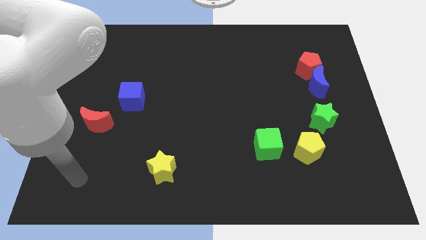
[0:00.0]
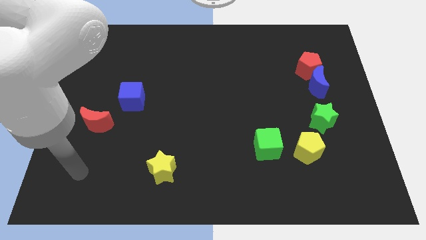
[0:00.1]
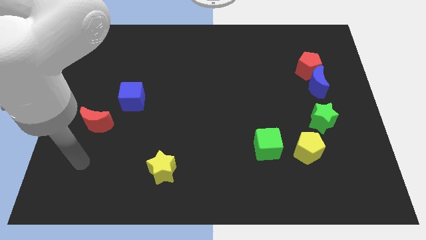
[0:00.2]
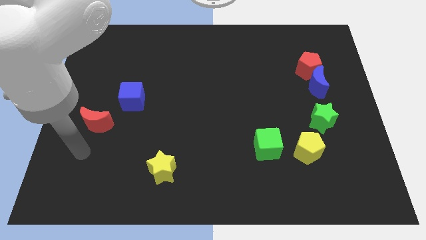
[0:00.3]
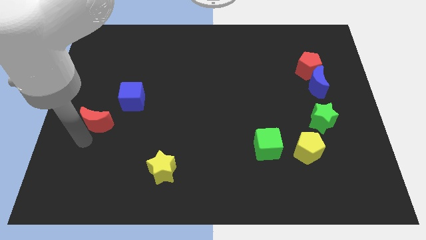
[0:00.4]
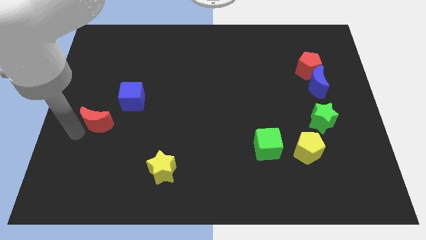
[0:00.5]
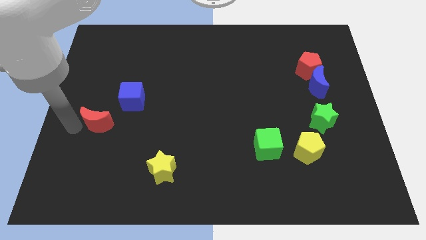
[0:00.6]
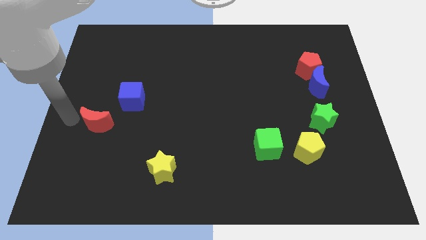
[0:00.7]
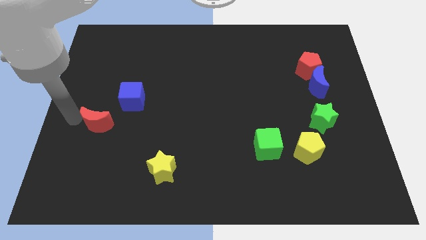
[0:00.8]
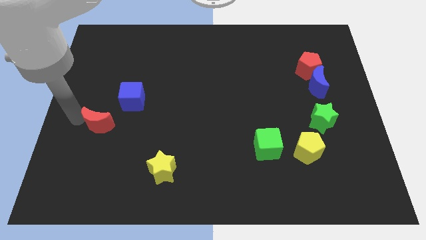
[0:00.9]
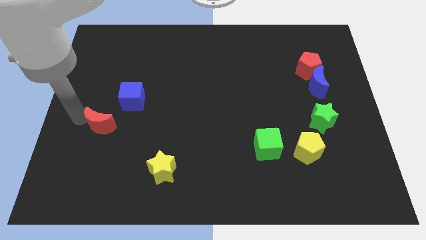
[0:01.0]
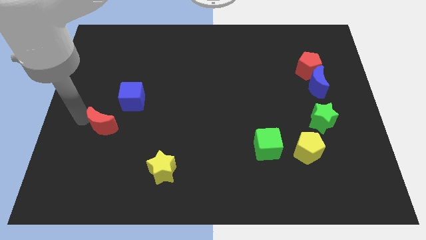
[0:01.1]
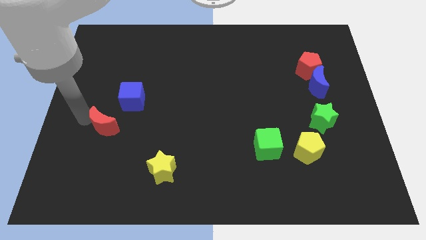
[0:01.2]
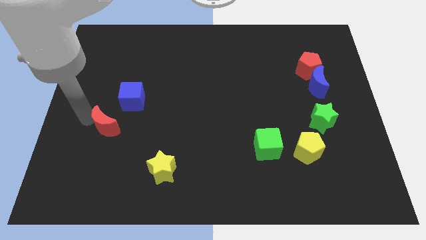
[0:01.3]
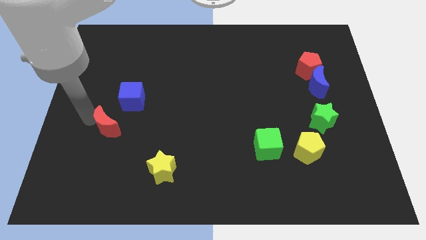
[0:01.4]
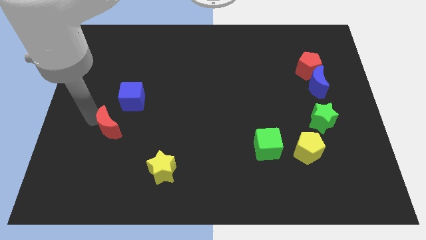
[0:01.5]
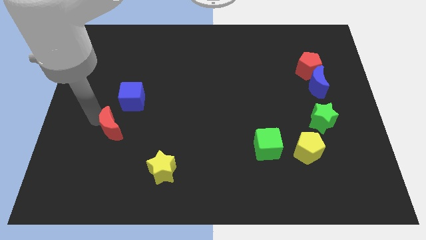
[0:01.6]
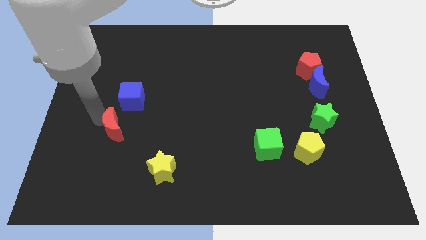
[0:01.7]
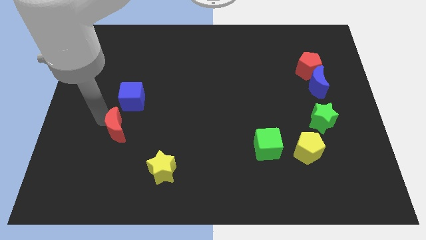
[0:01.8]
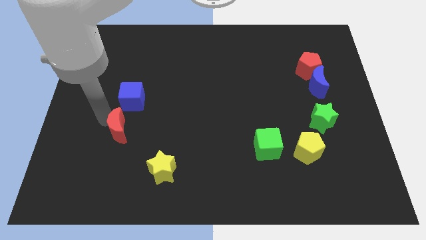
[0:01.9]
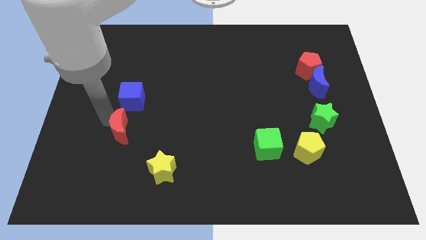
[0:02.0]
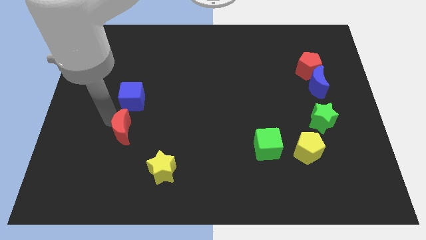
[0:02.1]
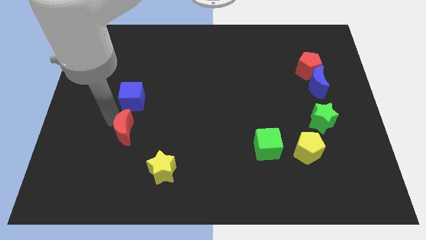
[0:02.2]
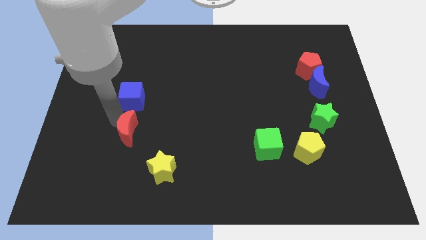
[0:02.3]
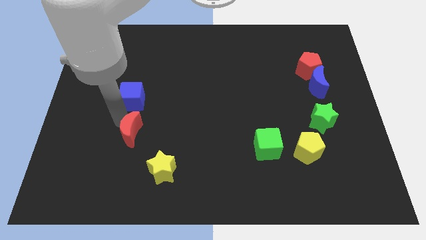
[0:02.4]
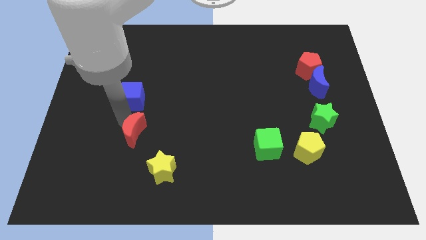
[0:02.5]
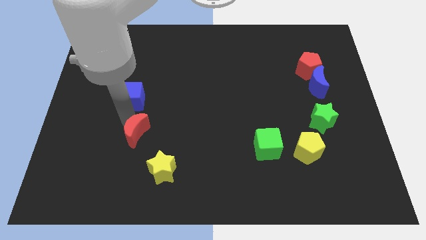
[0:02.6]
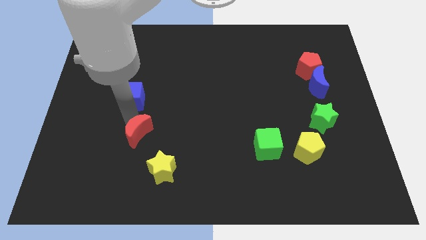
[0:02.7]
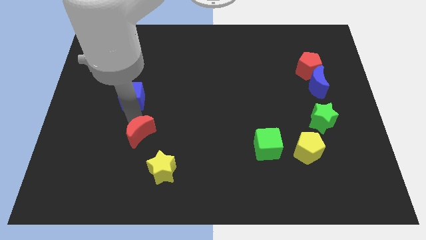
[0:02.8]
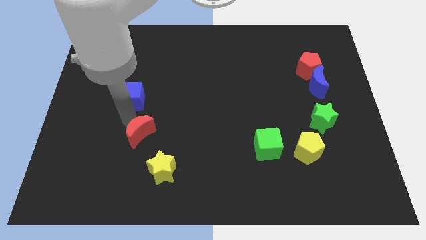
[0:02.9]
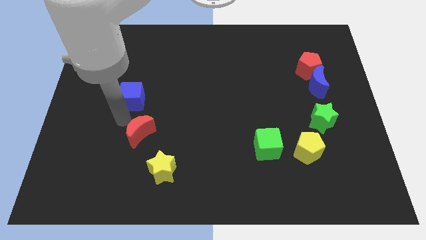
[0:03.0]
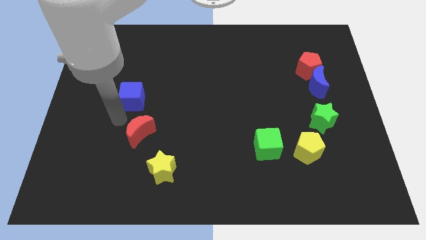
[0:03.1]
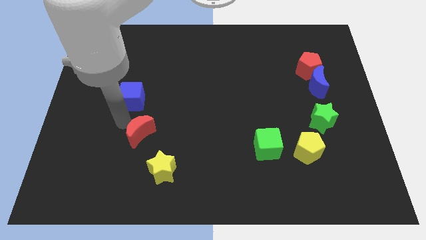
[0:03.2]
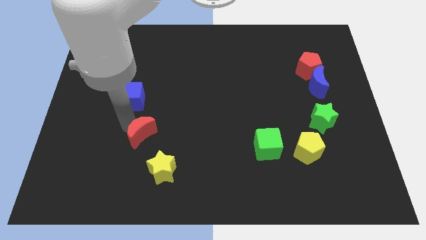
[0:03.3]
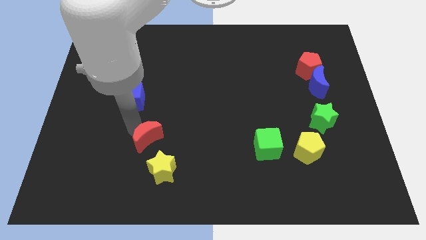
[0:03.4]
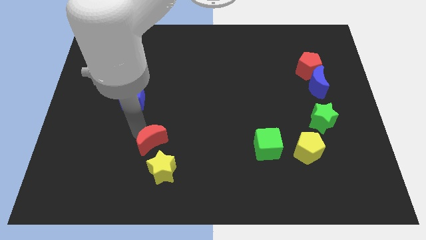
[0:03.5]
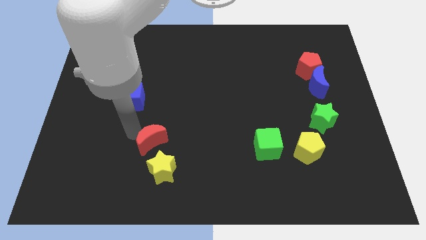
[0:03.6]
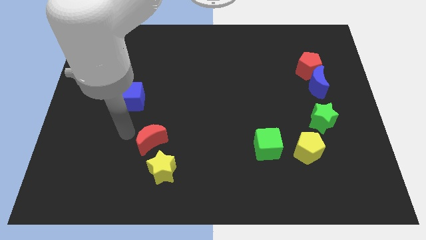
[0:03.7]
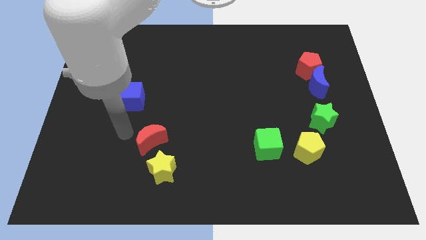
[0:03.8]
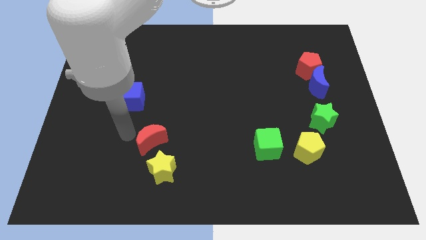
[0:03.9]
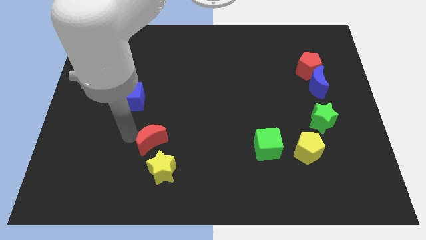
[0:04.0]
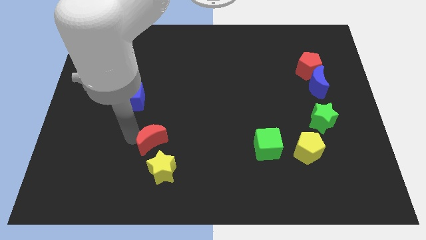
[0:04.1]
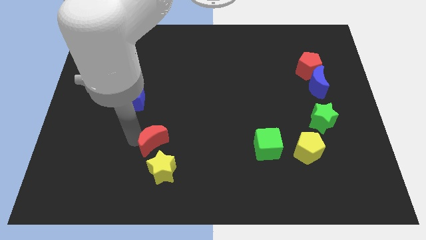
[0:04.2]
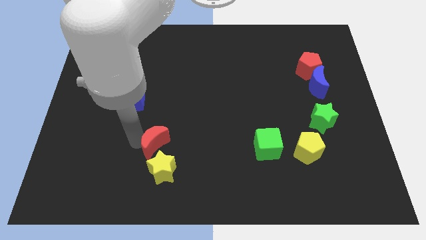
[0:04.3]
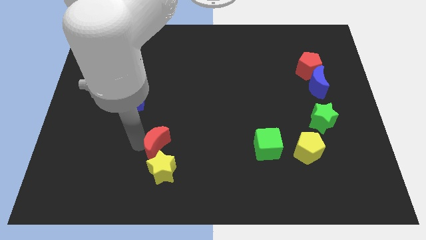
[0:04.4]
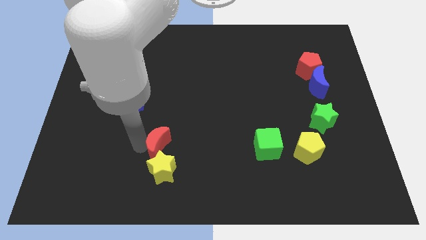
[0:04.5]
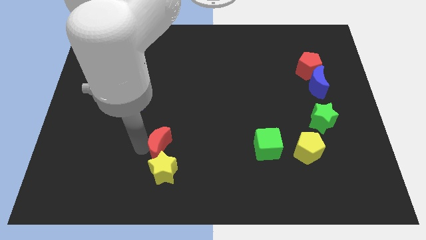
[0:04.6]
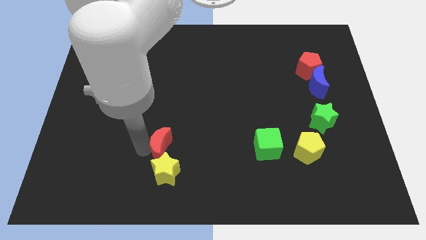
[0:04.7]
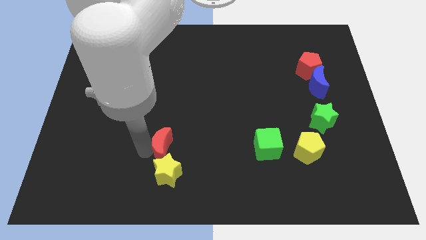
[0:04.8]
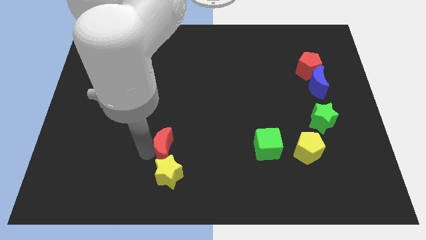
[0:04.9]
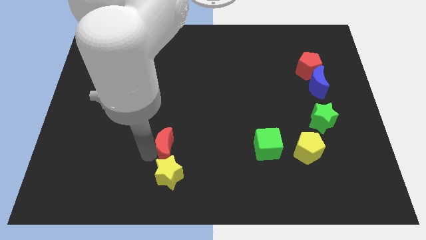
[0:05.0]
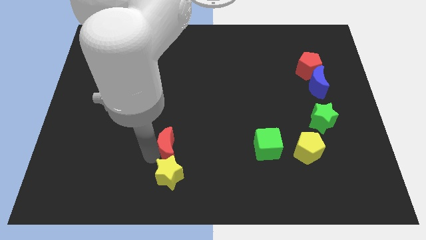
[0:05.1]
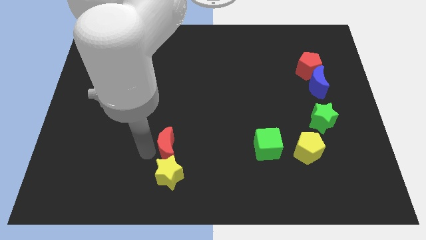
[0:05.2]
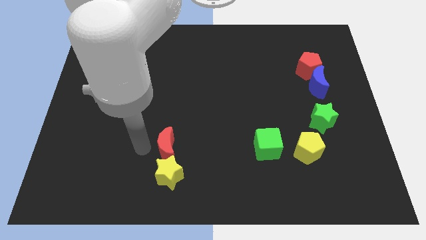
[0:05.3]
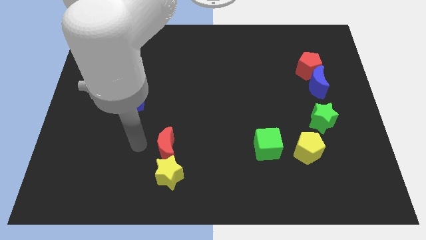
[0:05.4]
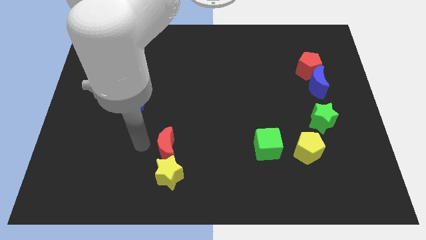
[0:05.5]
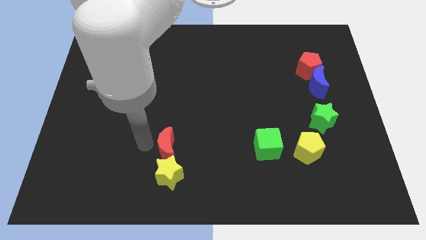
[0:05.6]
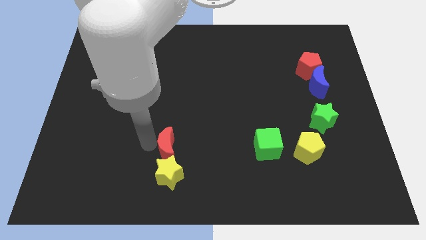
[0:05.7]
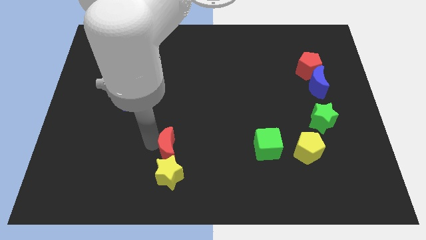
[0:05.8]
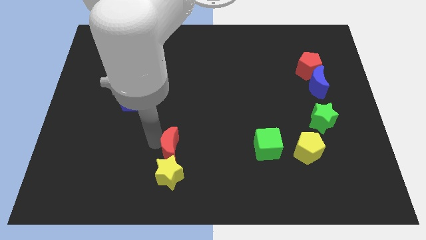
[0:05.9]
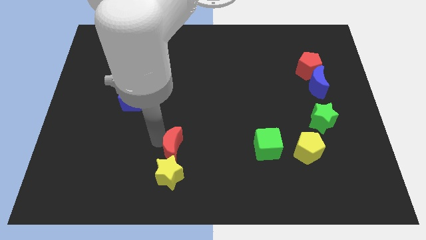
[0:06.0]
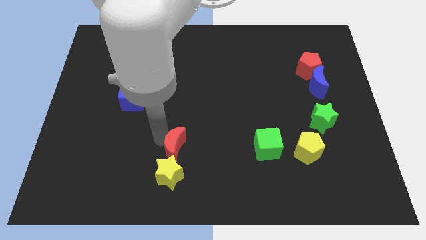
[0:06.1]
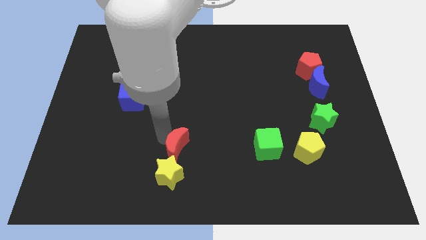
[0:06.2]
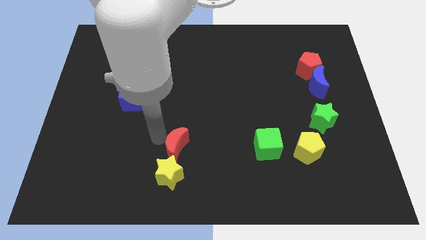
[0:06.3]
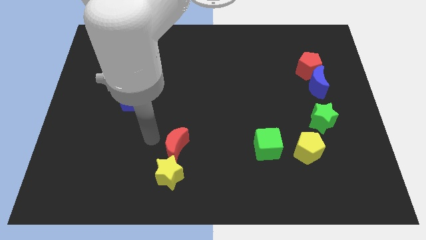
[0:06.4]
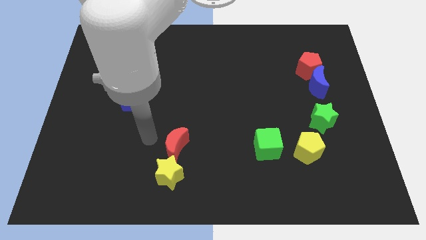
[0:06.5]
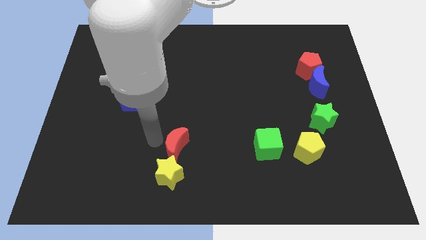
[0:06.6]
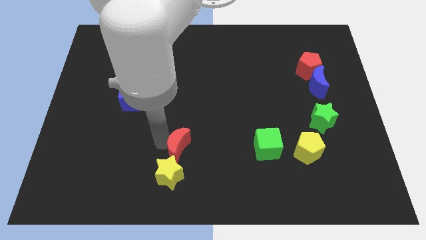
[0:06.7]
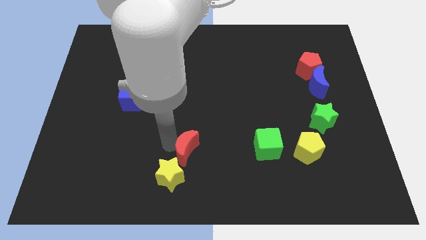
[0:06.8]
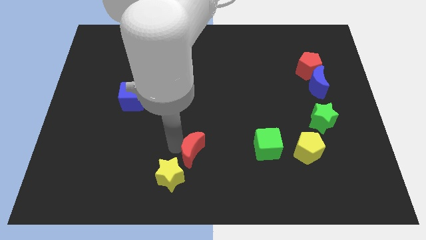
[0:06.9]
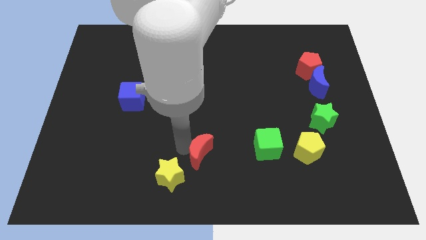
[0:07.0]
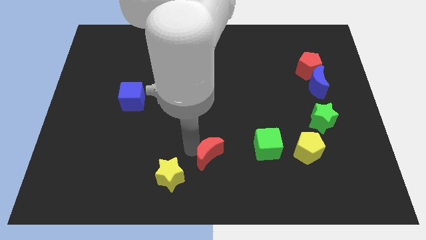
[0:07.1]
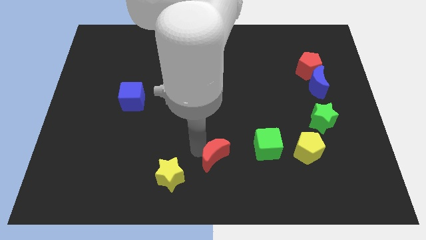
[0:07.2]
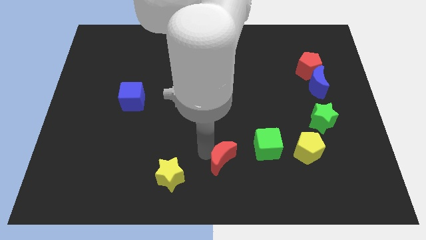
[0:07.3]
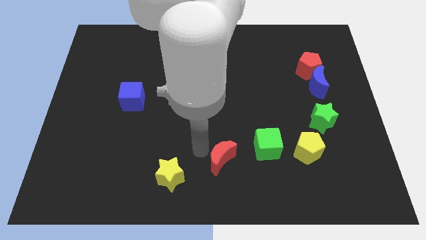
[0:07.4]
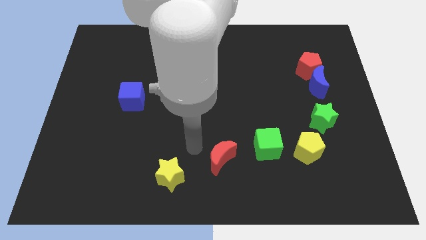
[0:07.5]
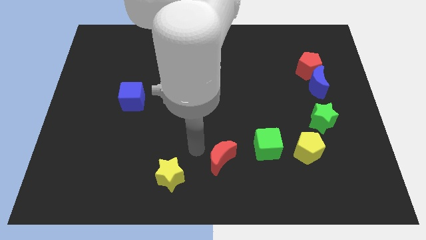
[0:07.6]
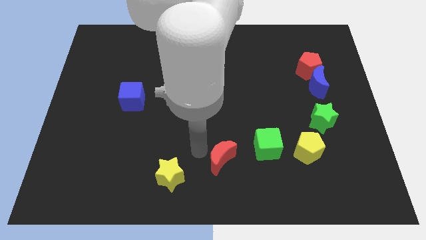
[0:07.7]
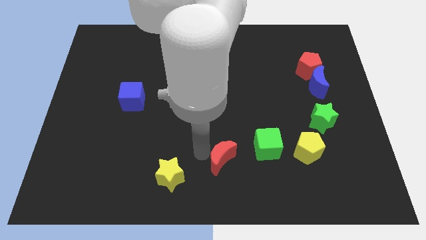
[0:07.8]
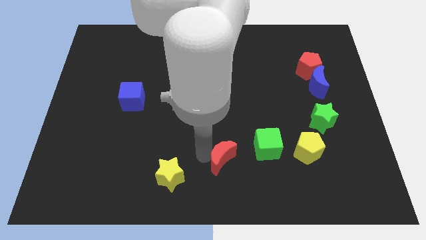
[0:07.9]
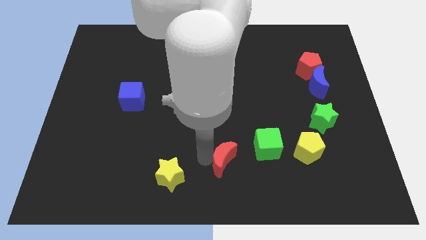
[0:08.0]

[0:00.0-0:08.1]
push the red moon to the bottom left of the green cube
